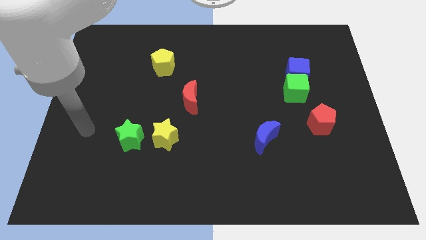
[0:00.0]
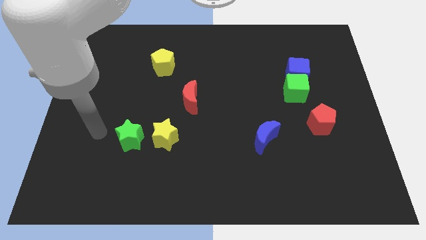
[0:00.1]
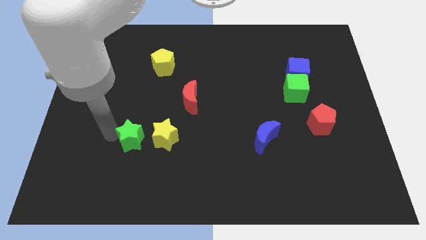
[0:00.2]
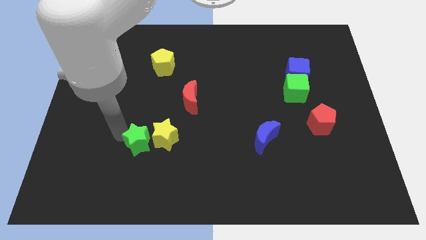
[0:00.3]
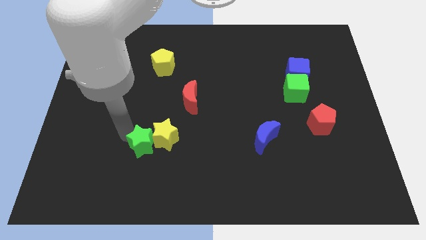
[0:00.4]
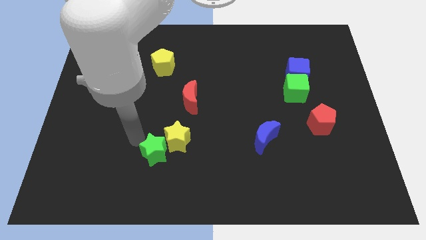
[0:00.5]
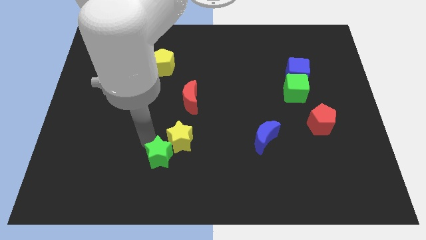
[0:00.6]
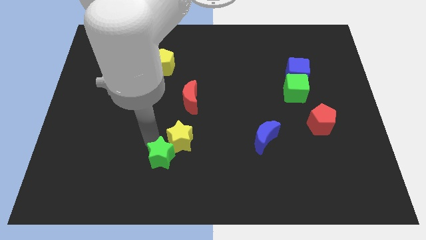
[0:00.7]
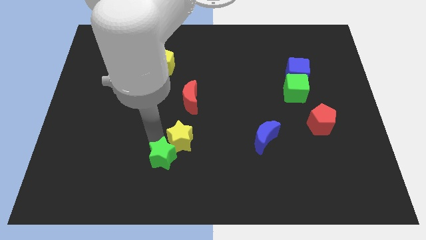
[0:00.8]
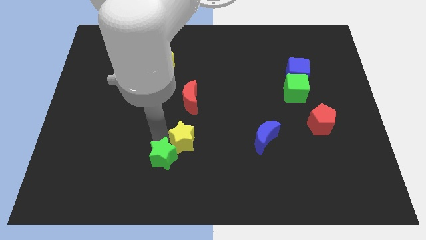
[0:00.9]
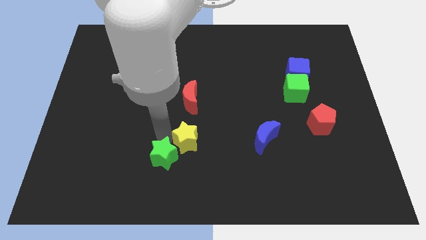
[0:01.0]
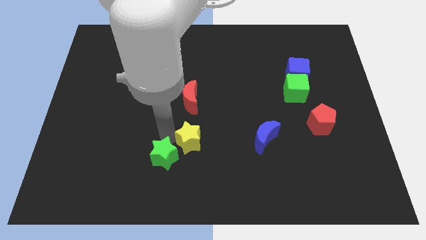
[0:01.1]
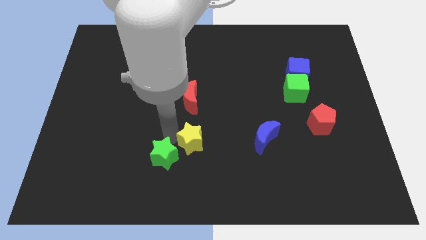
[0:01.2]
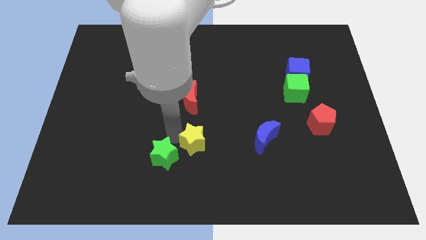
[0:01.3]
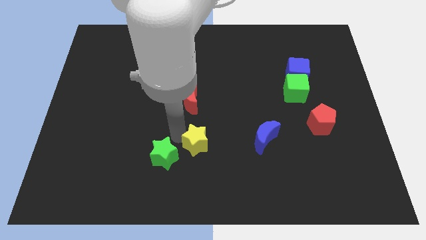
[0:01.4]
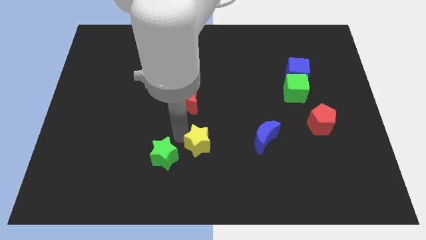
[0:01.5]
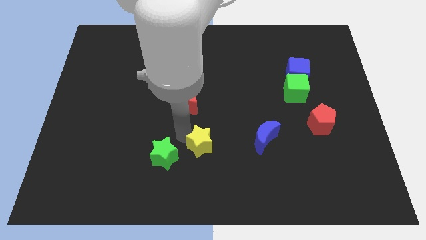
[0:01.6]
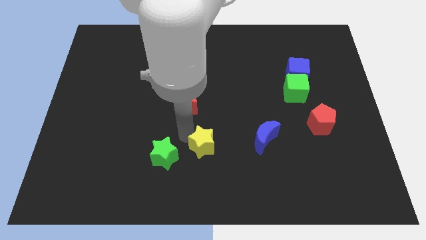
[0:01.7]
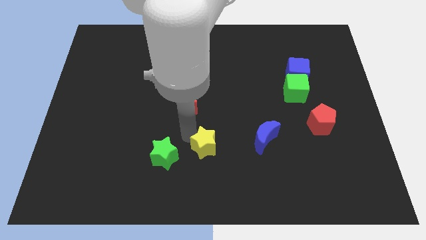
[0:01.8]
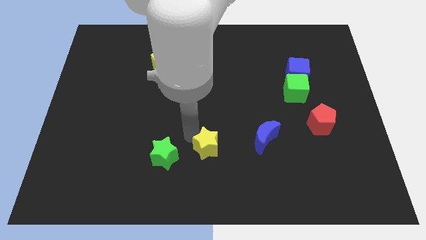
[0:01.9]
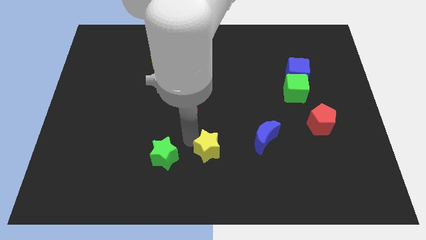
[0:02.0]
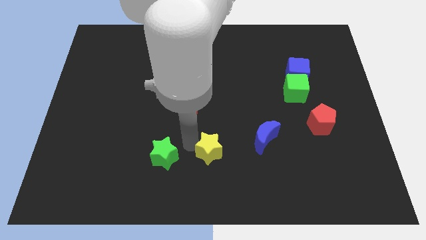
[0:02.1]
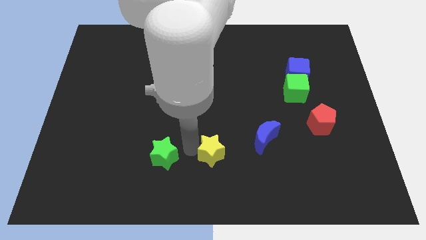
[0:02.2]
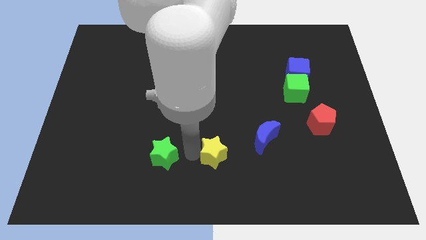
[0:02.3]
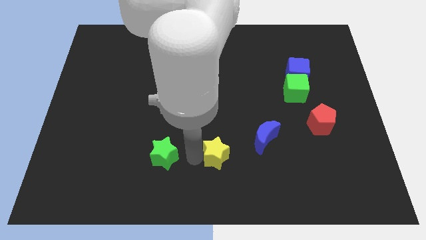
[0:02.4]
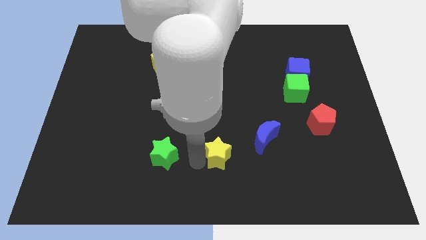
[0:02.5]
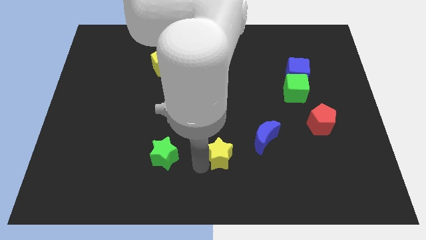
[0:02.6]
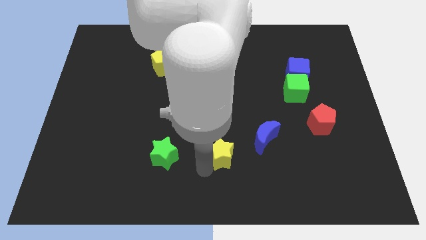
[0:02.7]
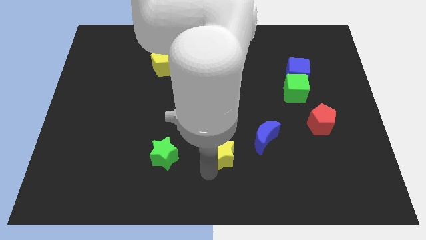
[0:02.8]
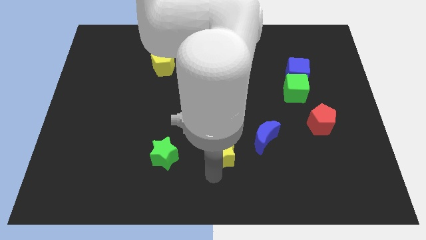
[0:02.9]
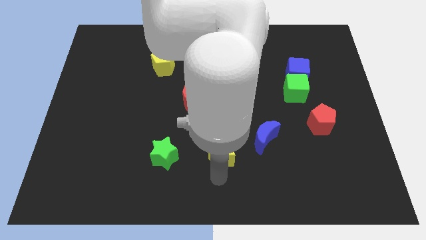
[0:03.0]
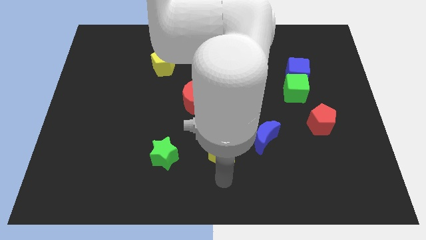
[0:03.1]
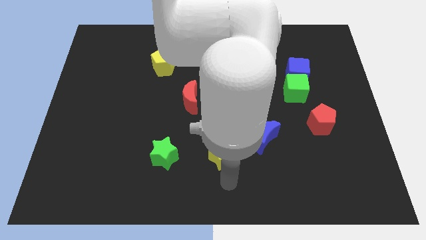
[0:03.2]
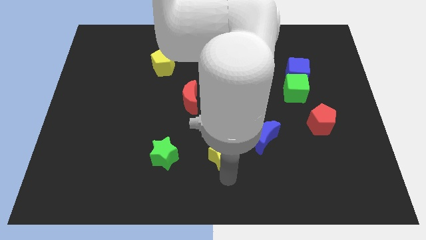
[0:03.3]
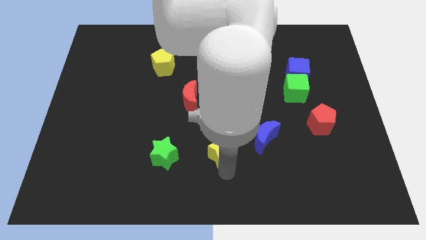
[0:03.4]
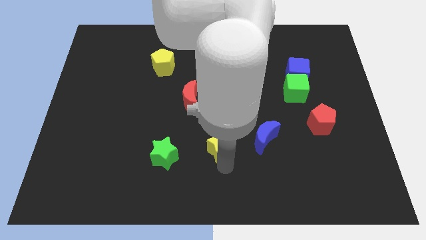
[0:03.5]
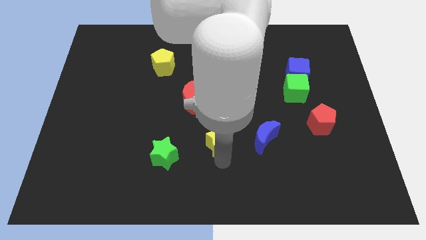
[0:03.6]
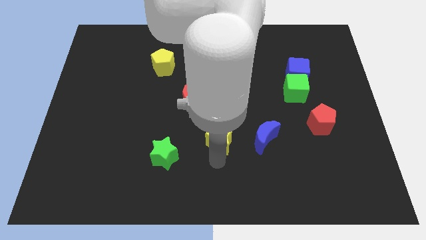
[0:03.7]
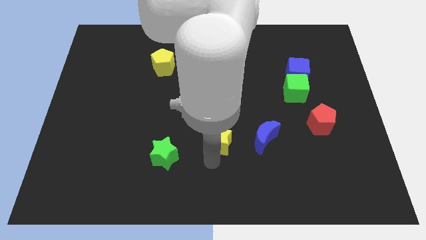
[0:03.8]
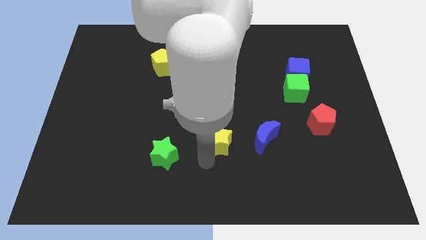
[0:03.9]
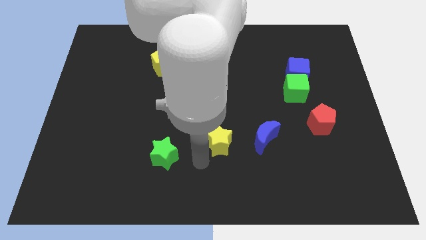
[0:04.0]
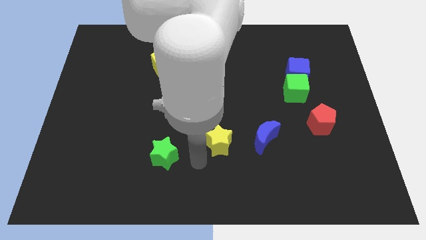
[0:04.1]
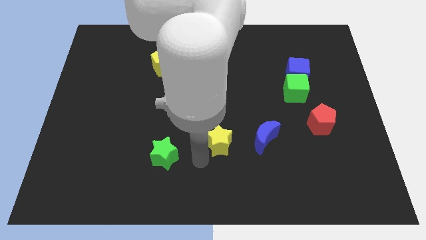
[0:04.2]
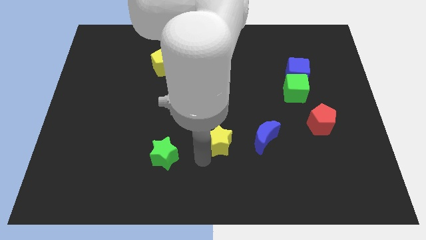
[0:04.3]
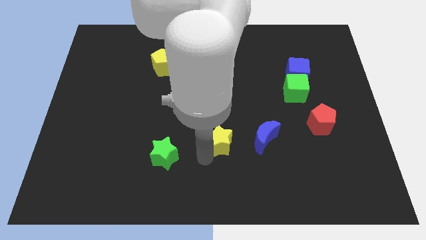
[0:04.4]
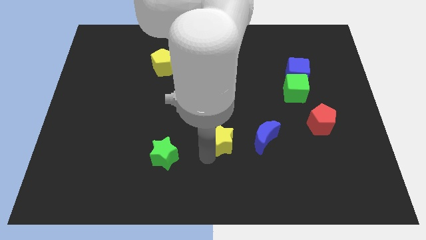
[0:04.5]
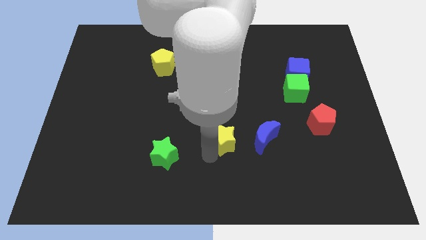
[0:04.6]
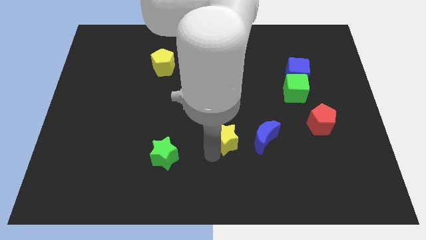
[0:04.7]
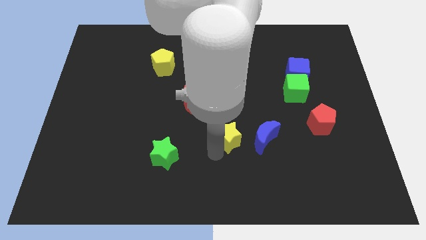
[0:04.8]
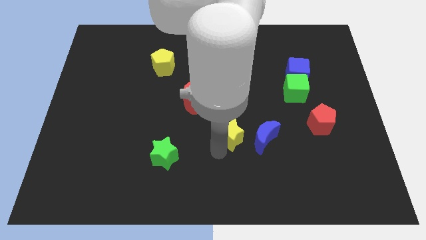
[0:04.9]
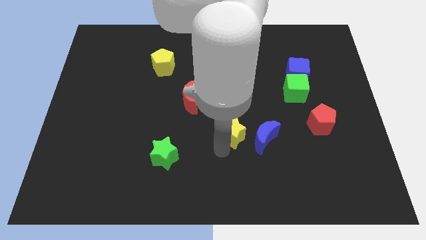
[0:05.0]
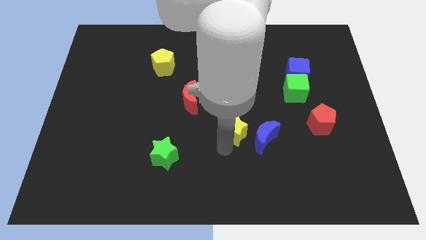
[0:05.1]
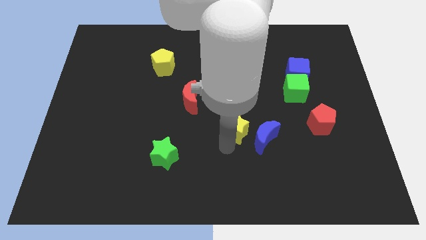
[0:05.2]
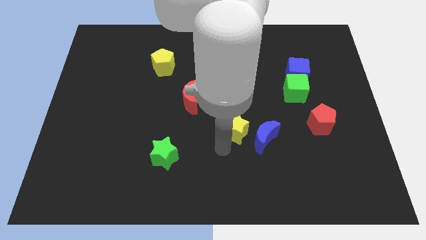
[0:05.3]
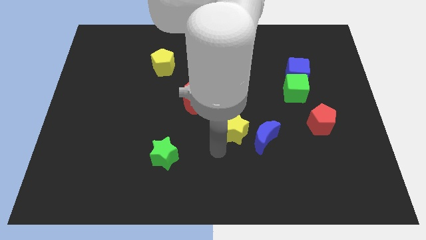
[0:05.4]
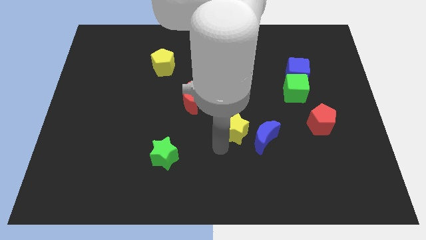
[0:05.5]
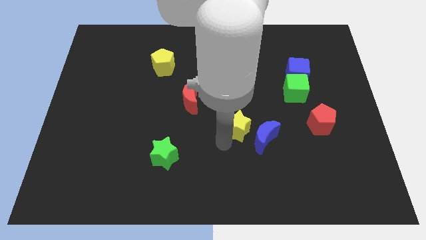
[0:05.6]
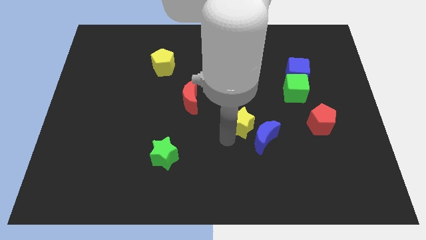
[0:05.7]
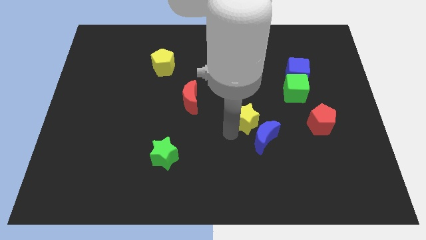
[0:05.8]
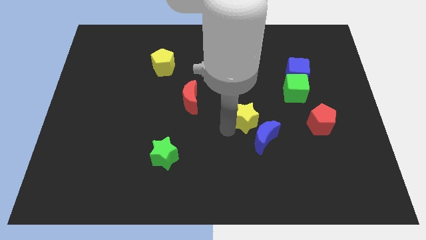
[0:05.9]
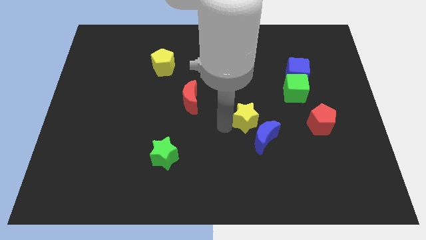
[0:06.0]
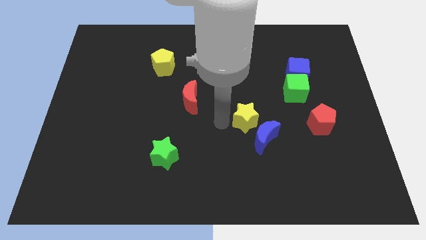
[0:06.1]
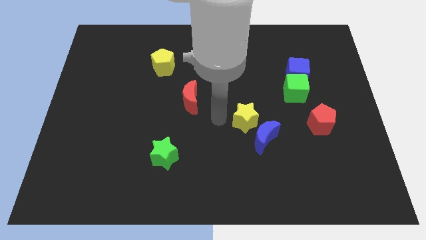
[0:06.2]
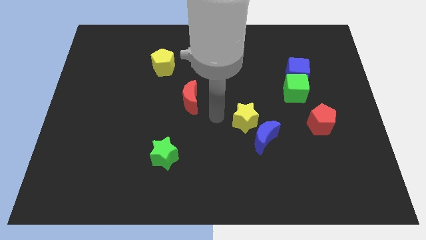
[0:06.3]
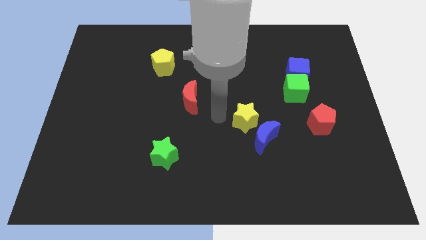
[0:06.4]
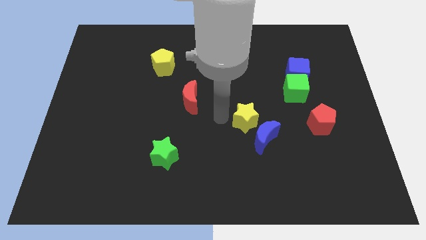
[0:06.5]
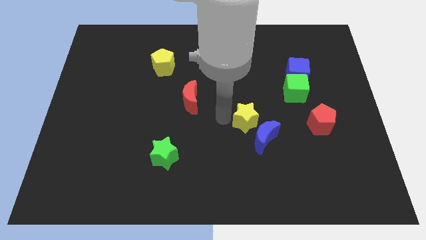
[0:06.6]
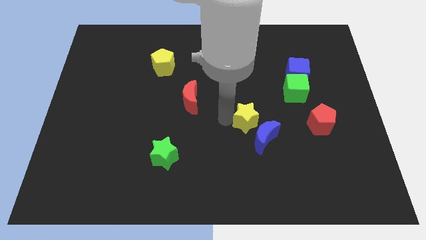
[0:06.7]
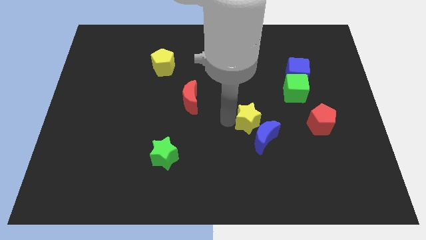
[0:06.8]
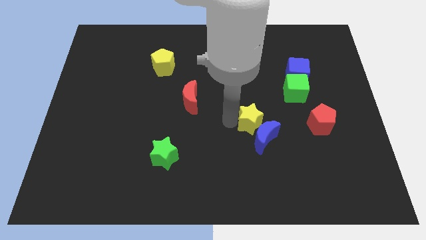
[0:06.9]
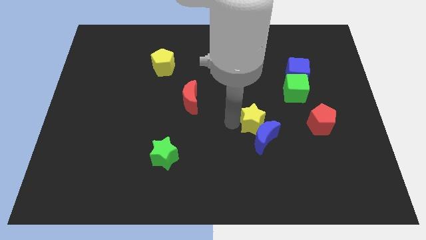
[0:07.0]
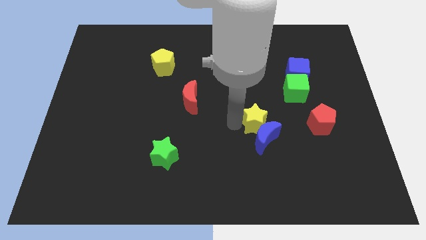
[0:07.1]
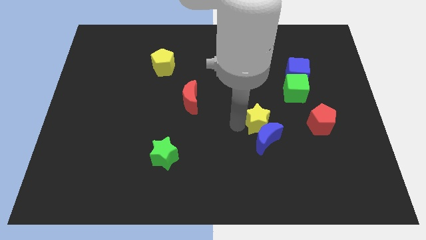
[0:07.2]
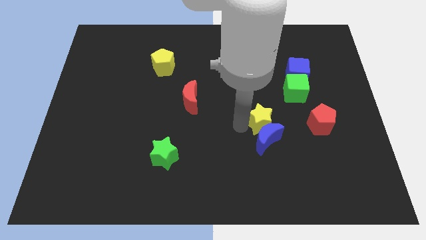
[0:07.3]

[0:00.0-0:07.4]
push the yellow star to the right

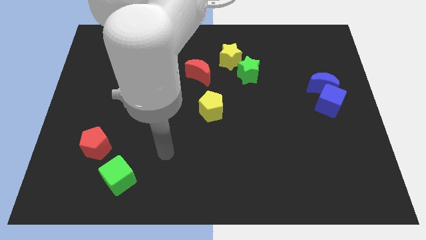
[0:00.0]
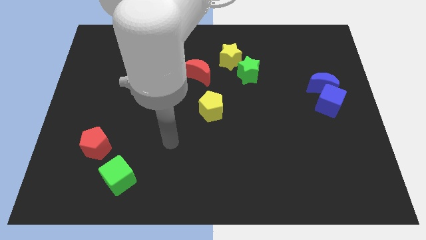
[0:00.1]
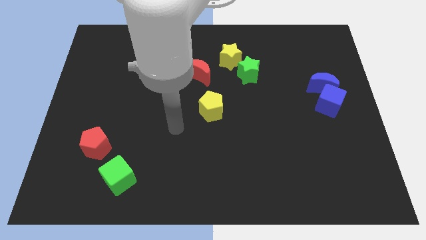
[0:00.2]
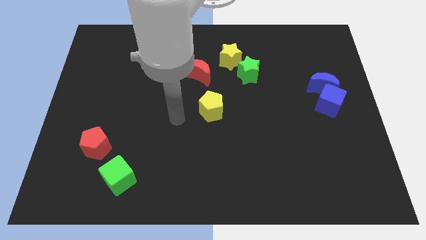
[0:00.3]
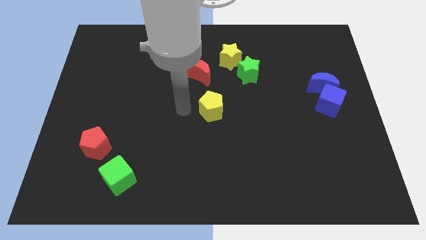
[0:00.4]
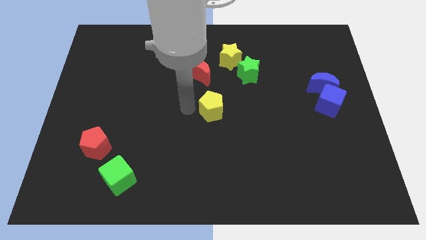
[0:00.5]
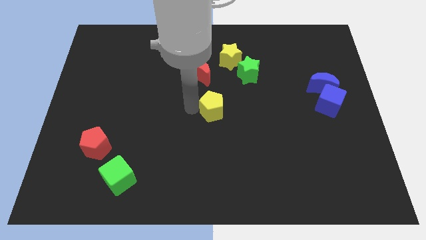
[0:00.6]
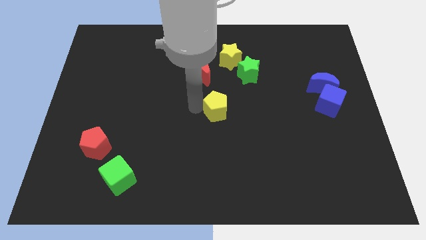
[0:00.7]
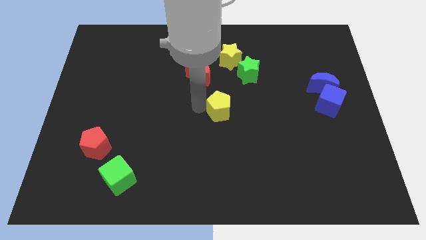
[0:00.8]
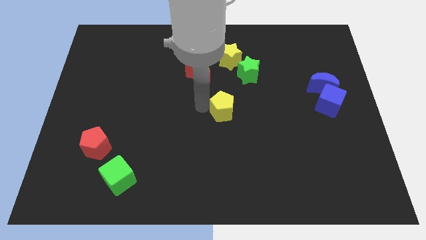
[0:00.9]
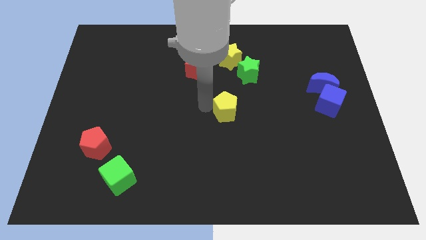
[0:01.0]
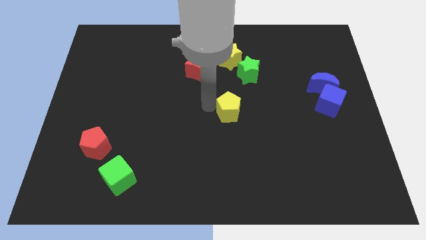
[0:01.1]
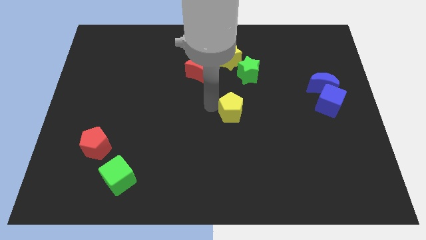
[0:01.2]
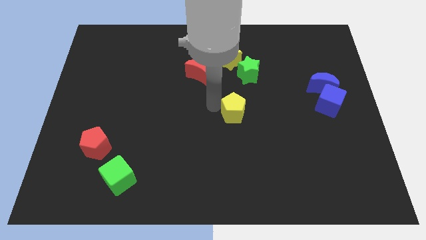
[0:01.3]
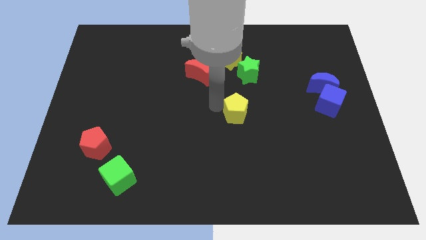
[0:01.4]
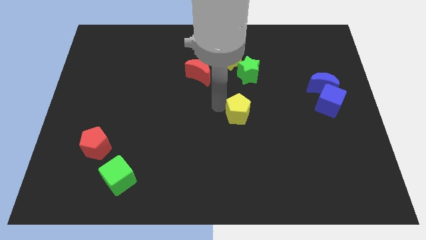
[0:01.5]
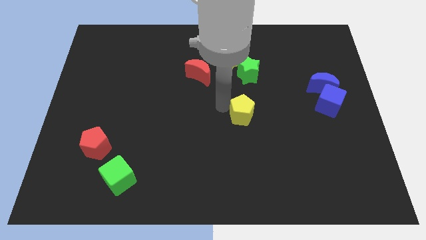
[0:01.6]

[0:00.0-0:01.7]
slightly push the yellow pentagon to the right
